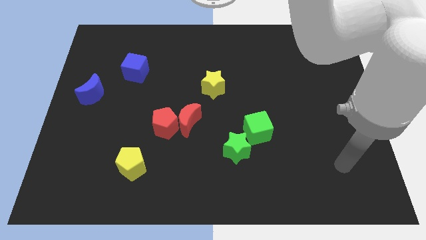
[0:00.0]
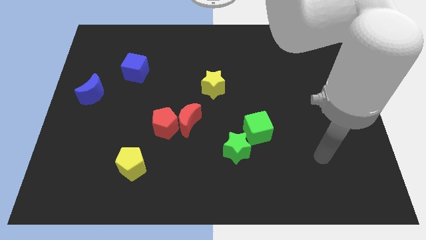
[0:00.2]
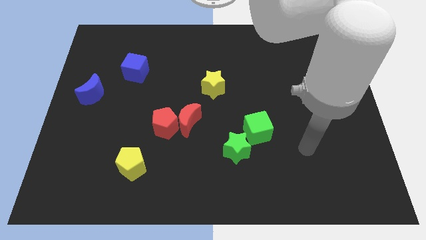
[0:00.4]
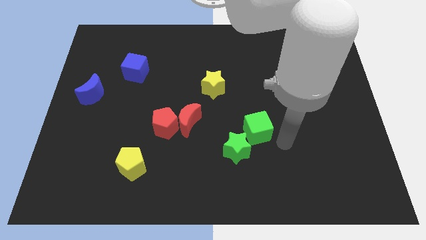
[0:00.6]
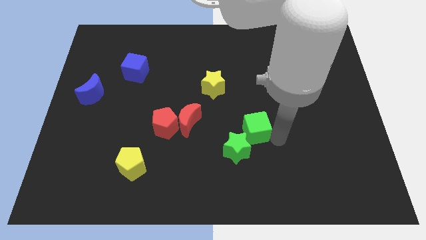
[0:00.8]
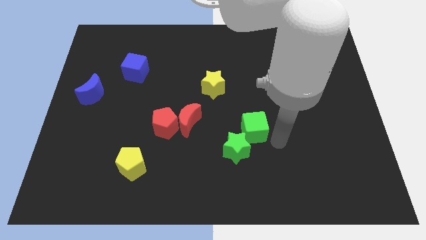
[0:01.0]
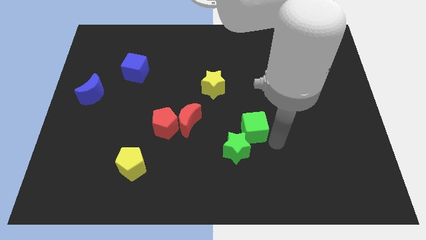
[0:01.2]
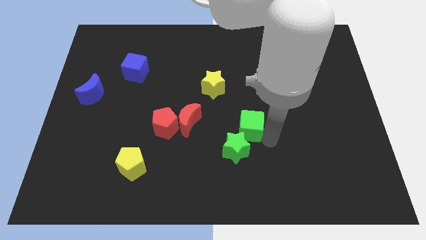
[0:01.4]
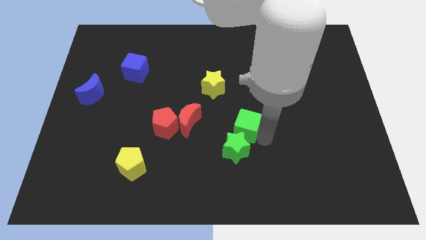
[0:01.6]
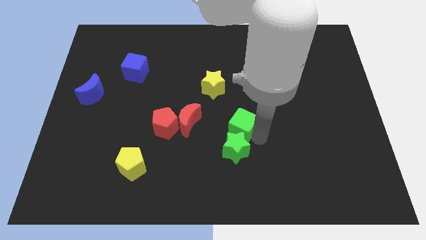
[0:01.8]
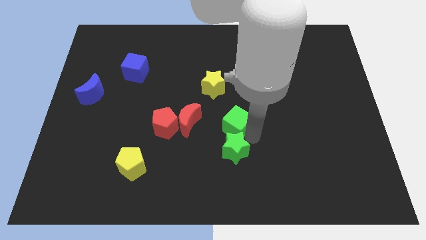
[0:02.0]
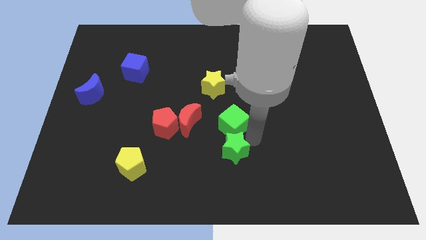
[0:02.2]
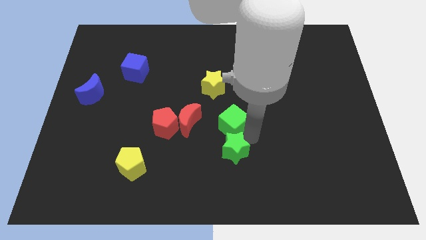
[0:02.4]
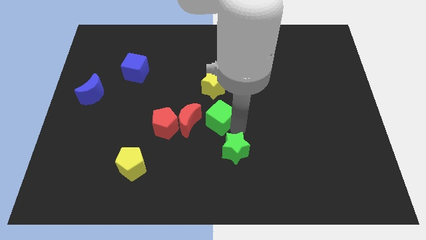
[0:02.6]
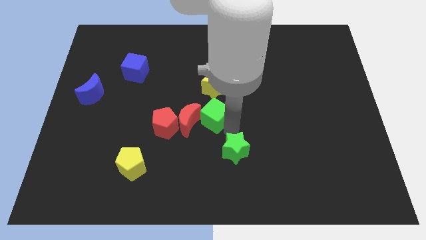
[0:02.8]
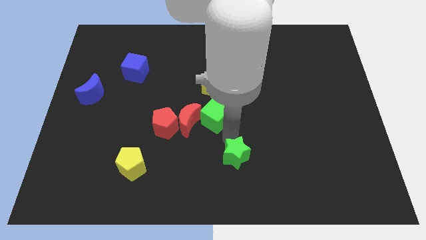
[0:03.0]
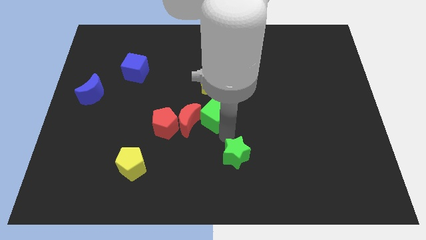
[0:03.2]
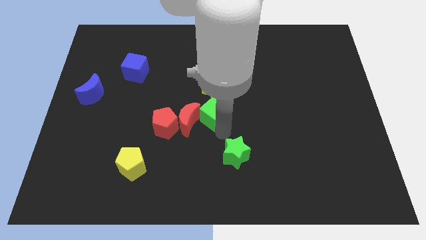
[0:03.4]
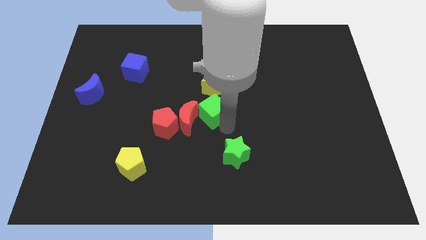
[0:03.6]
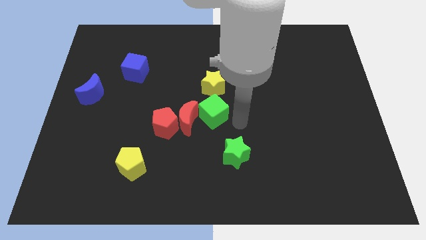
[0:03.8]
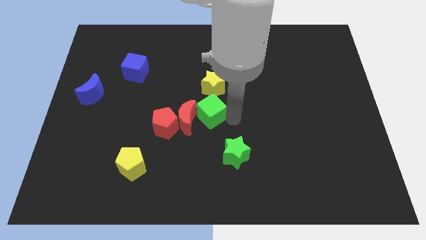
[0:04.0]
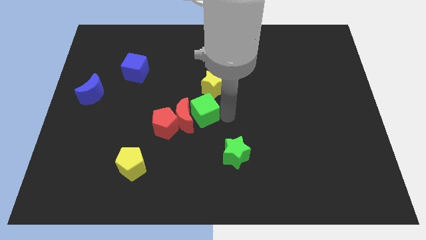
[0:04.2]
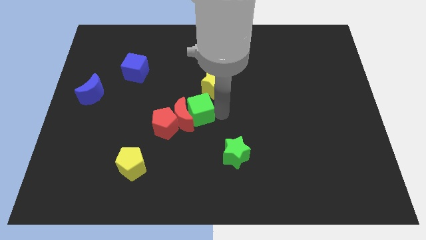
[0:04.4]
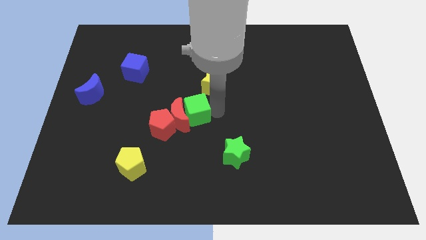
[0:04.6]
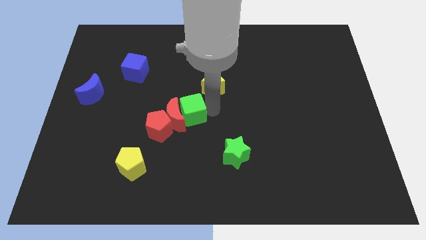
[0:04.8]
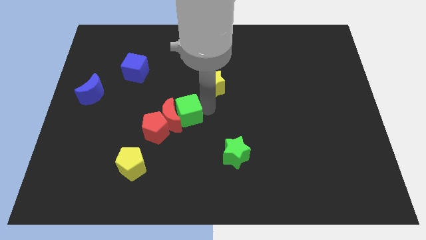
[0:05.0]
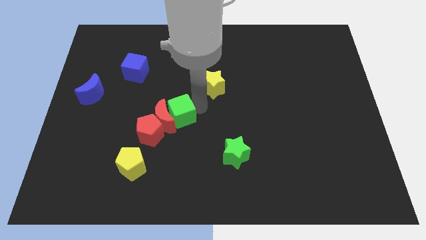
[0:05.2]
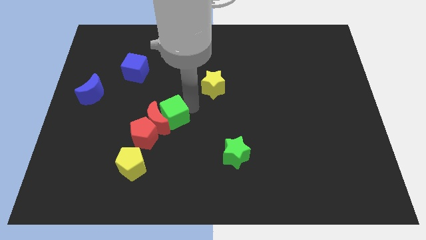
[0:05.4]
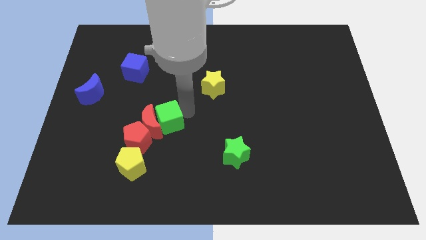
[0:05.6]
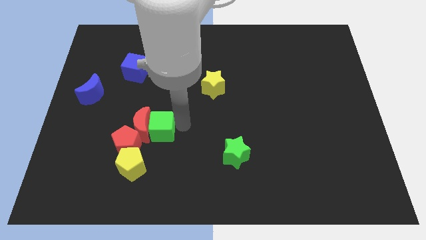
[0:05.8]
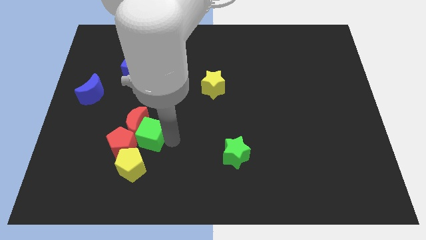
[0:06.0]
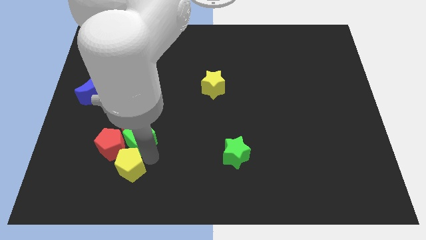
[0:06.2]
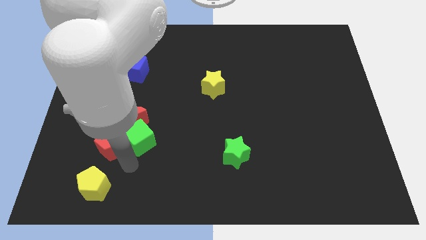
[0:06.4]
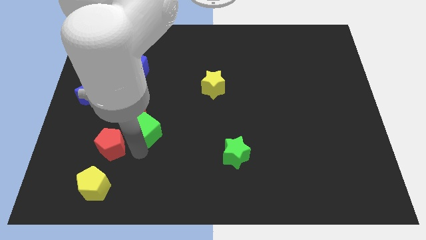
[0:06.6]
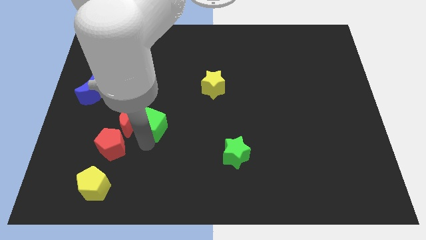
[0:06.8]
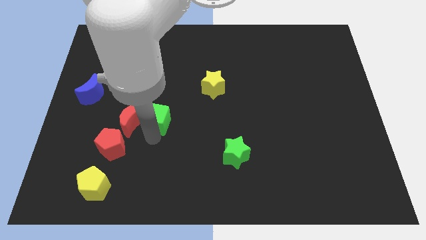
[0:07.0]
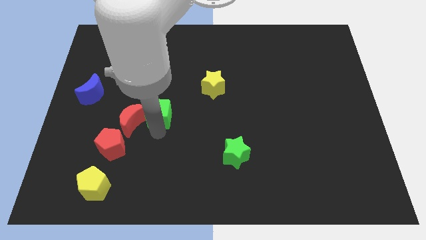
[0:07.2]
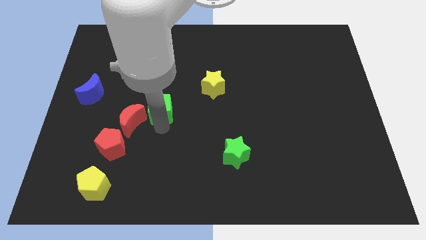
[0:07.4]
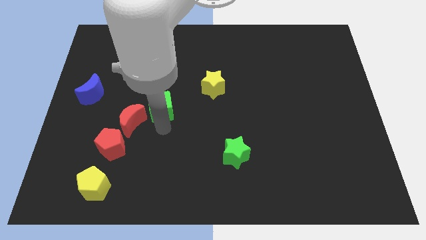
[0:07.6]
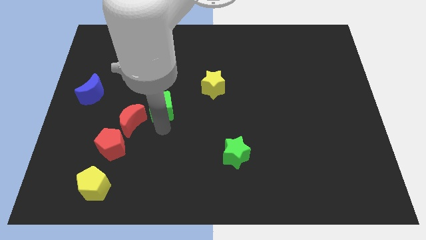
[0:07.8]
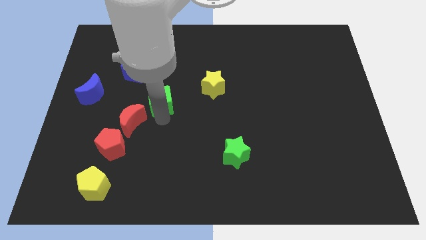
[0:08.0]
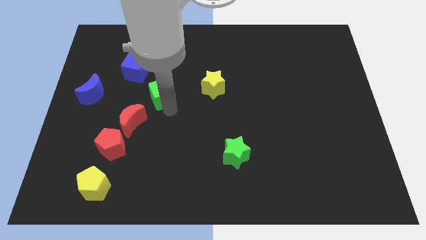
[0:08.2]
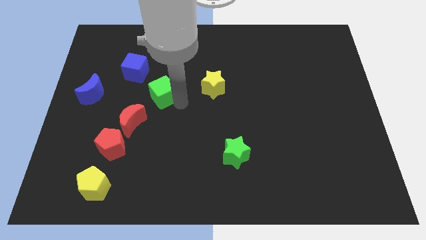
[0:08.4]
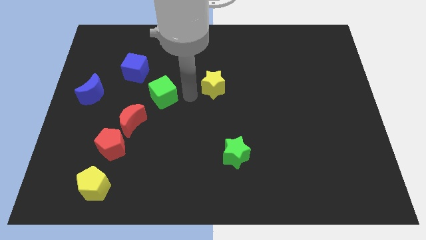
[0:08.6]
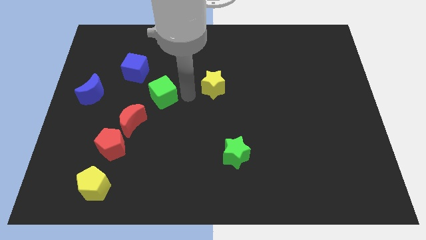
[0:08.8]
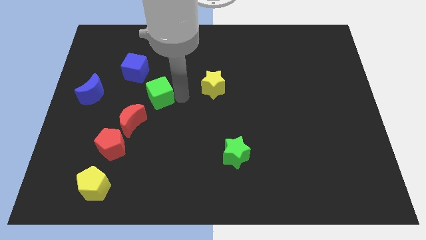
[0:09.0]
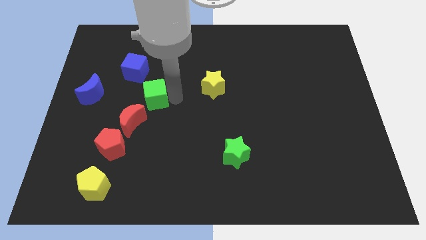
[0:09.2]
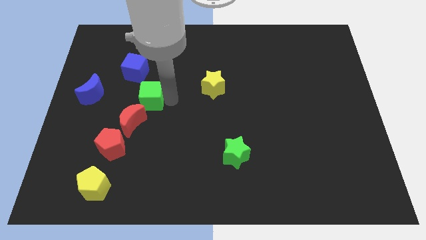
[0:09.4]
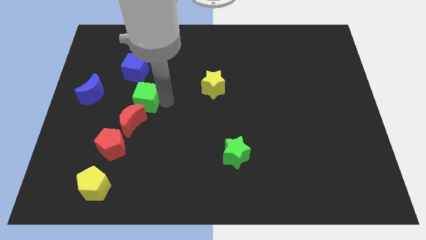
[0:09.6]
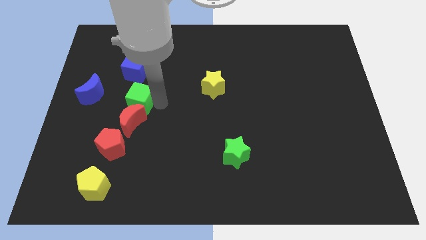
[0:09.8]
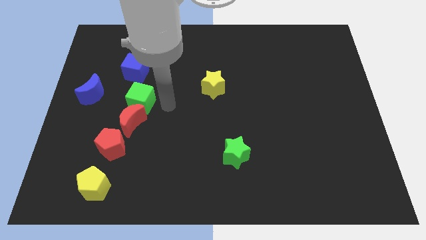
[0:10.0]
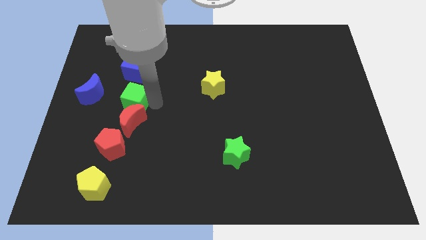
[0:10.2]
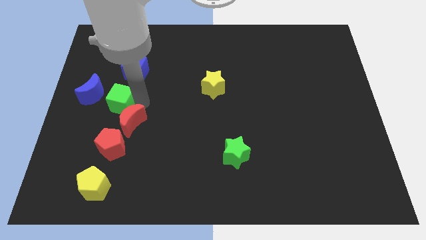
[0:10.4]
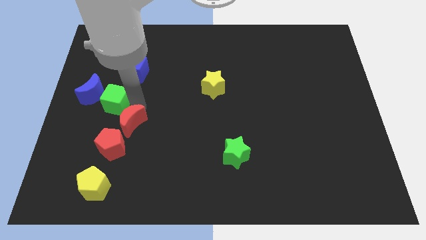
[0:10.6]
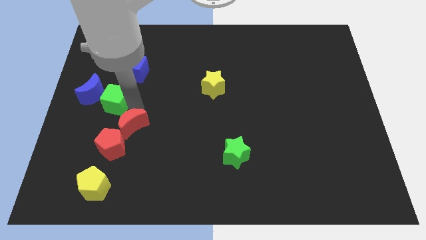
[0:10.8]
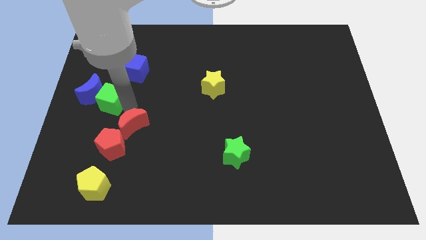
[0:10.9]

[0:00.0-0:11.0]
push the green cube to the blue moon

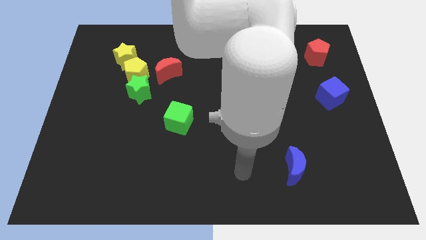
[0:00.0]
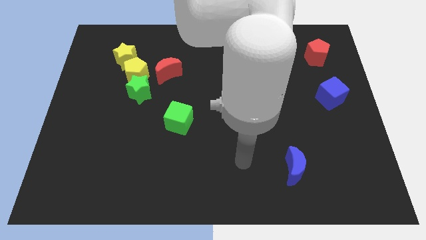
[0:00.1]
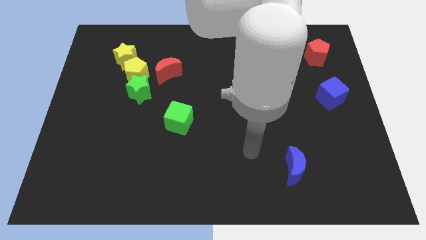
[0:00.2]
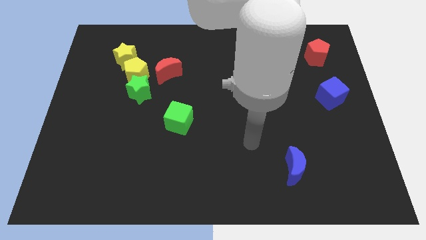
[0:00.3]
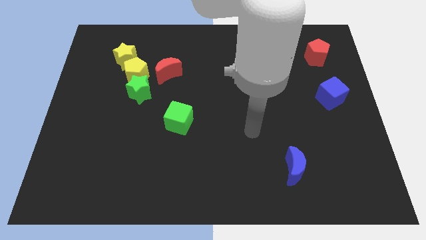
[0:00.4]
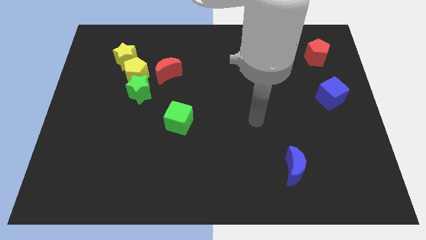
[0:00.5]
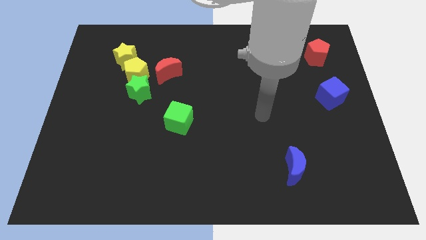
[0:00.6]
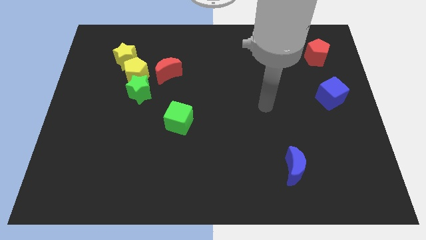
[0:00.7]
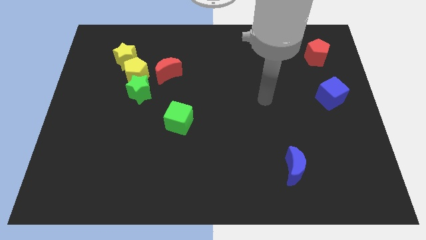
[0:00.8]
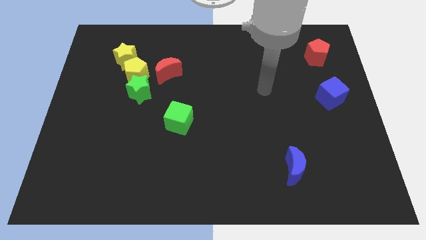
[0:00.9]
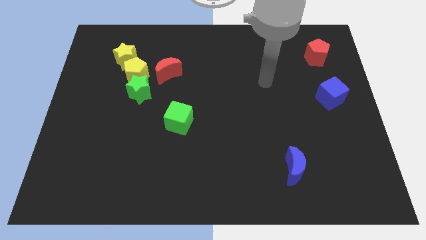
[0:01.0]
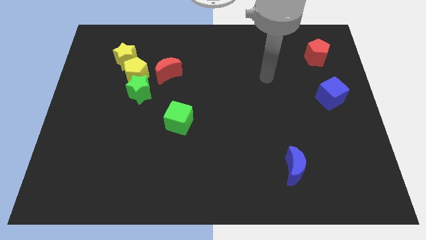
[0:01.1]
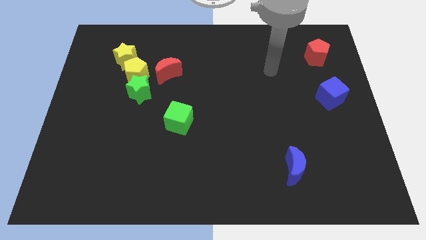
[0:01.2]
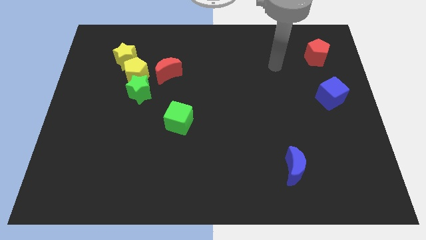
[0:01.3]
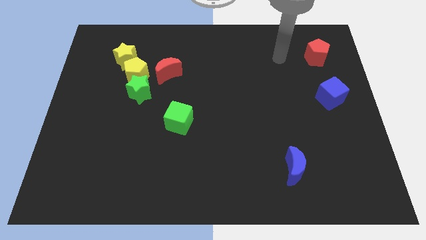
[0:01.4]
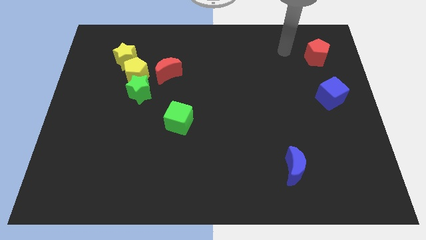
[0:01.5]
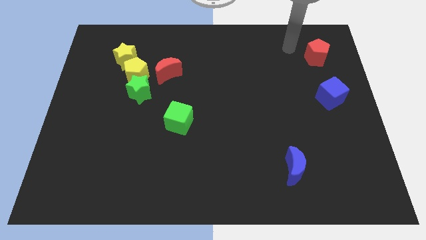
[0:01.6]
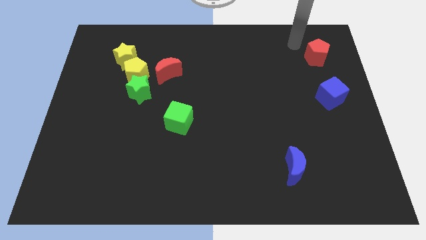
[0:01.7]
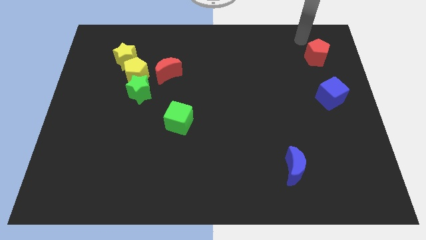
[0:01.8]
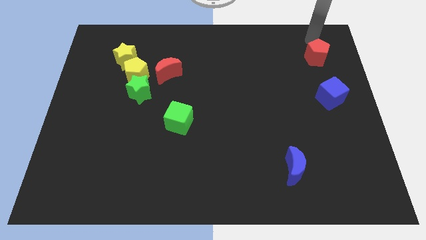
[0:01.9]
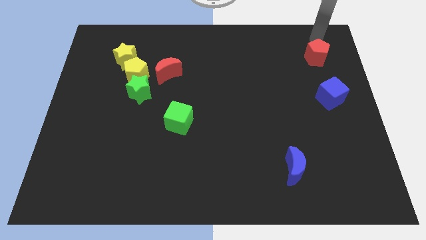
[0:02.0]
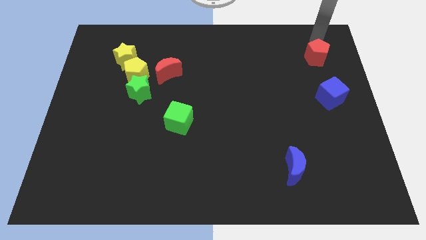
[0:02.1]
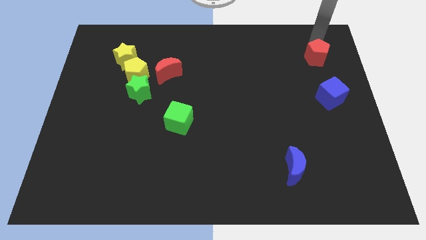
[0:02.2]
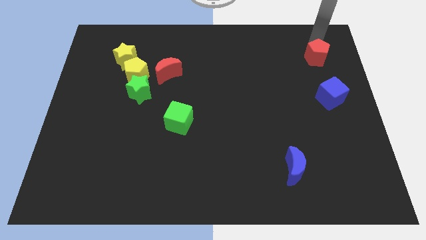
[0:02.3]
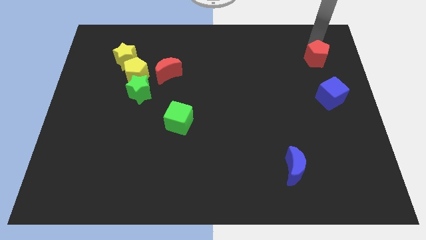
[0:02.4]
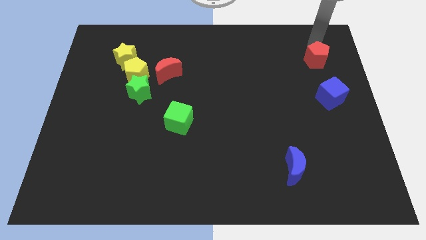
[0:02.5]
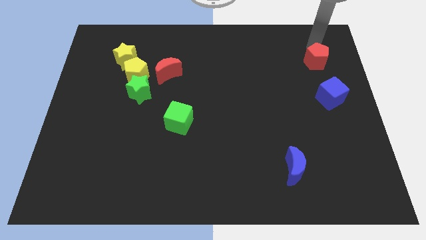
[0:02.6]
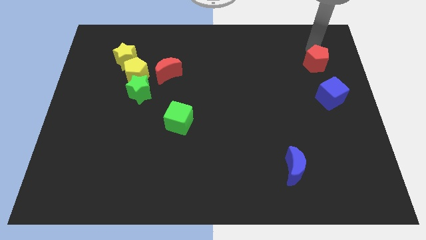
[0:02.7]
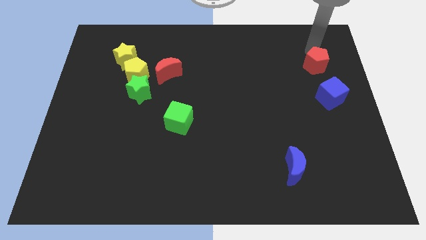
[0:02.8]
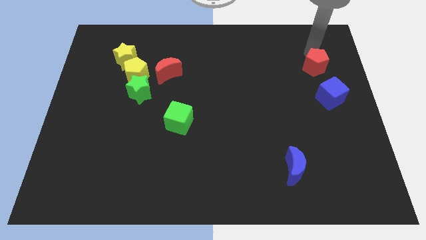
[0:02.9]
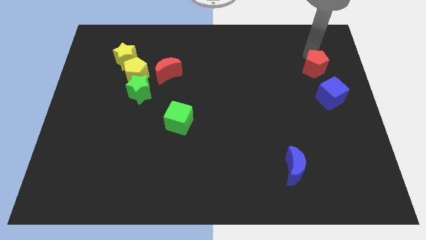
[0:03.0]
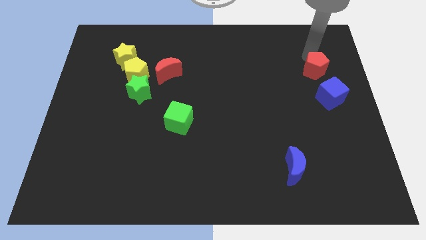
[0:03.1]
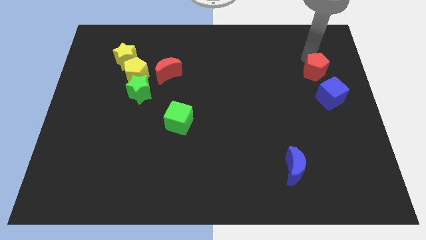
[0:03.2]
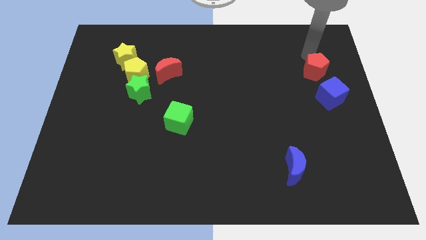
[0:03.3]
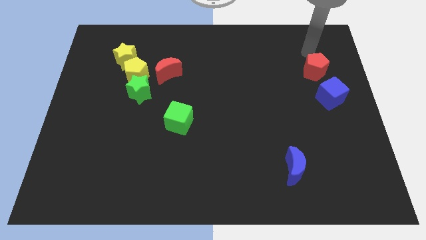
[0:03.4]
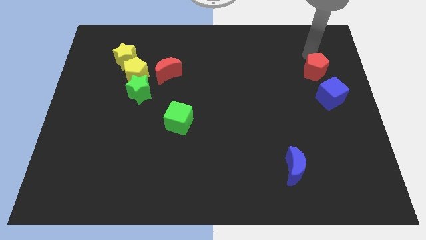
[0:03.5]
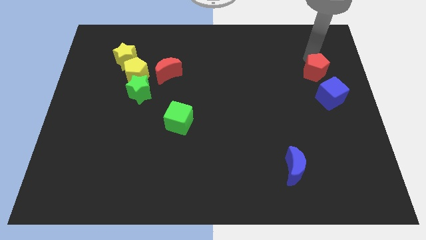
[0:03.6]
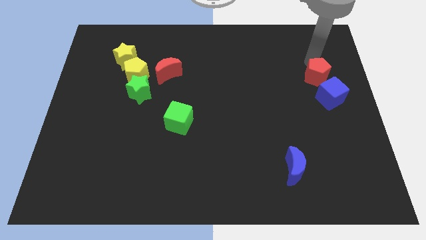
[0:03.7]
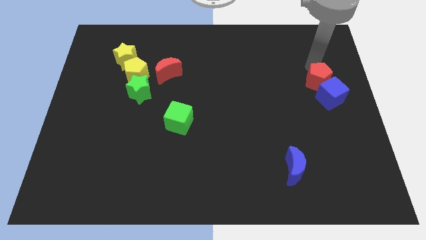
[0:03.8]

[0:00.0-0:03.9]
push the red pentagon next to the blue cube
